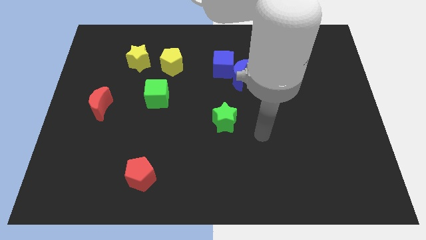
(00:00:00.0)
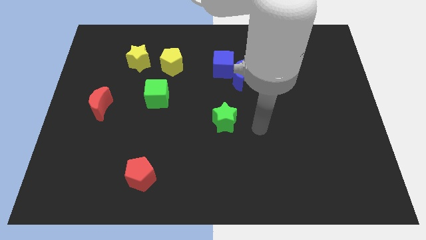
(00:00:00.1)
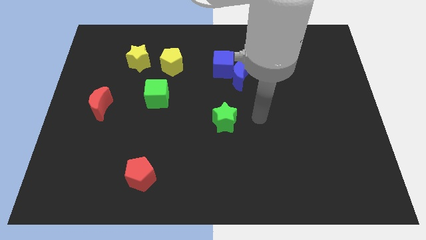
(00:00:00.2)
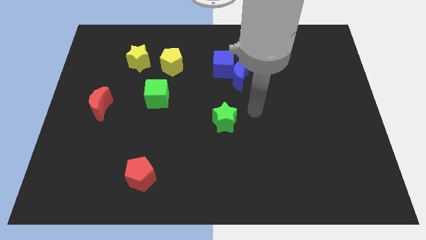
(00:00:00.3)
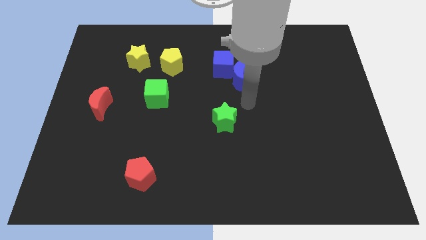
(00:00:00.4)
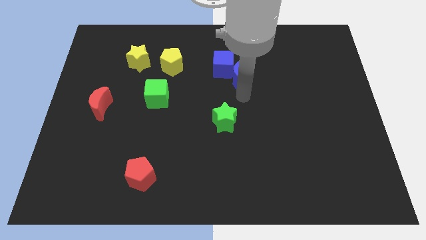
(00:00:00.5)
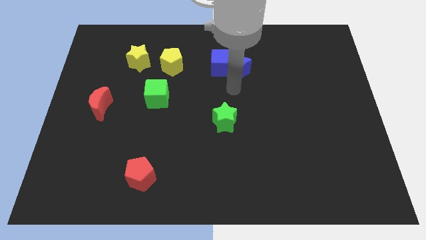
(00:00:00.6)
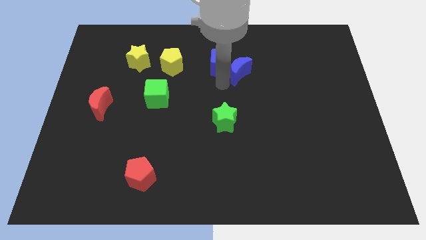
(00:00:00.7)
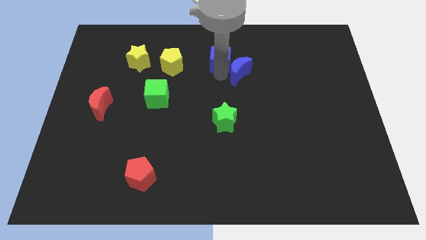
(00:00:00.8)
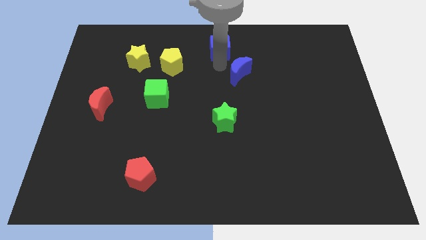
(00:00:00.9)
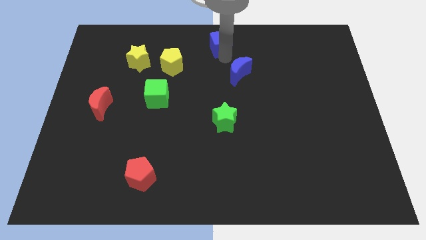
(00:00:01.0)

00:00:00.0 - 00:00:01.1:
separate the blue moon from the blue cube

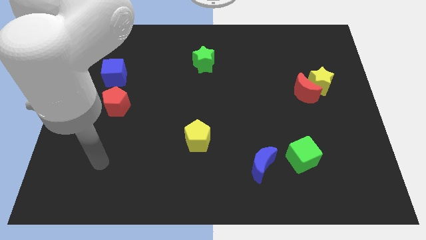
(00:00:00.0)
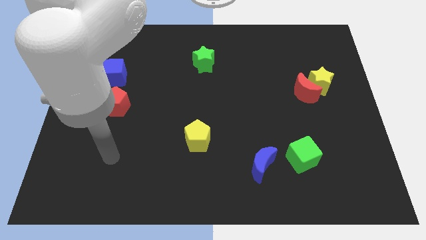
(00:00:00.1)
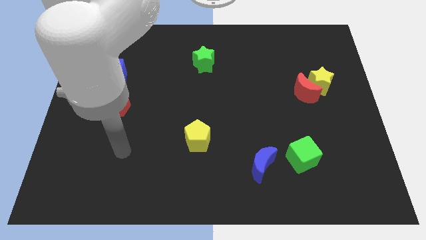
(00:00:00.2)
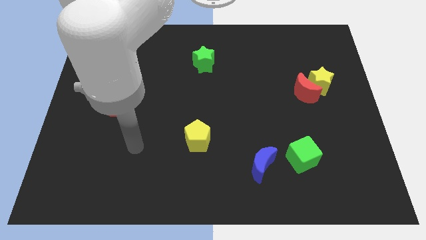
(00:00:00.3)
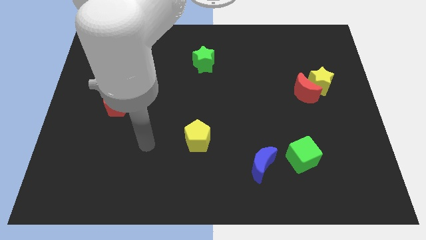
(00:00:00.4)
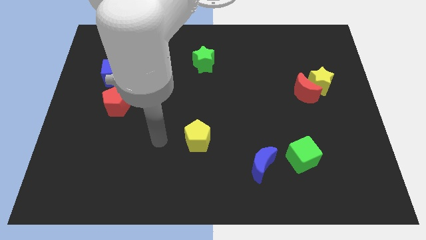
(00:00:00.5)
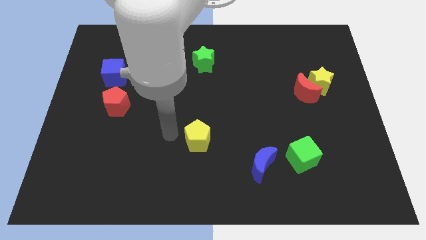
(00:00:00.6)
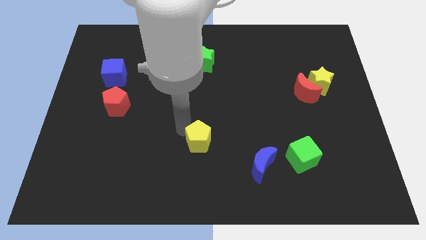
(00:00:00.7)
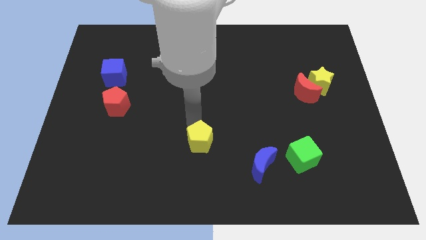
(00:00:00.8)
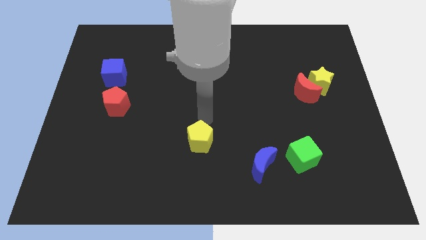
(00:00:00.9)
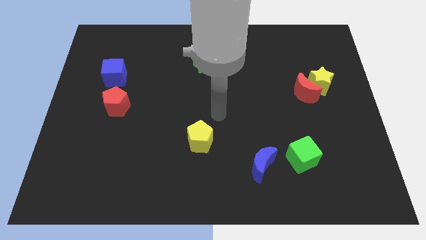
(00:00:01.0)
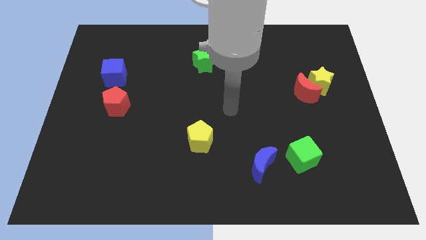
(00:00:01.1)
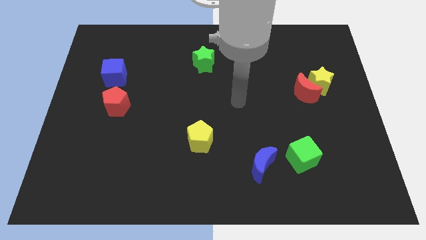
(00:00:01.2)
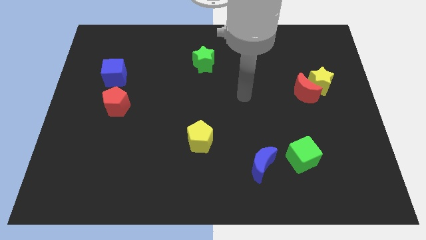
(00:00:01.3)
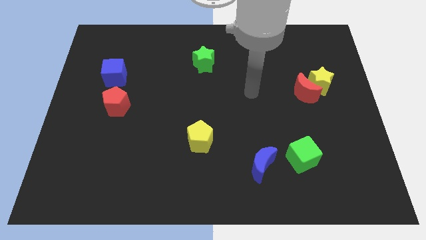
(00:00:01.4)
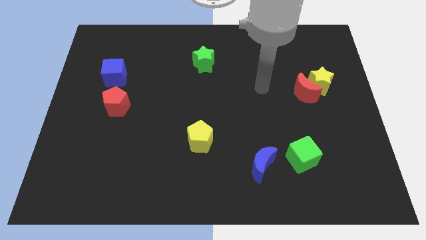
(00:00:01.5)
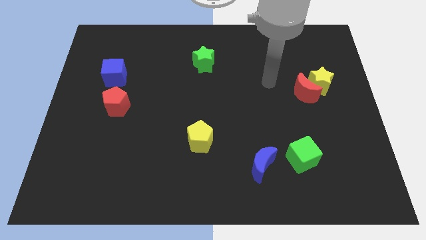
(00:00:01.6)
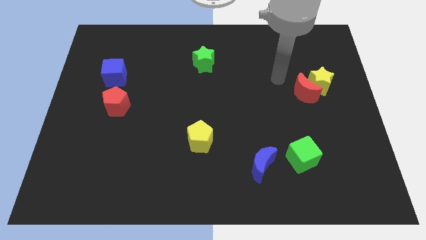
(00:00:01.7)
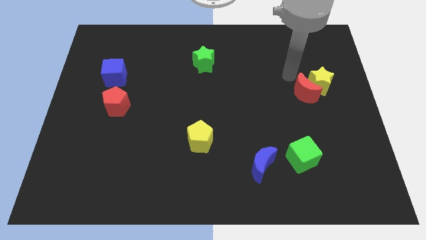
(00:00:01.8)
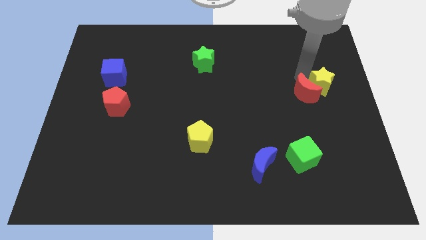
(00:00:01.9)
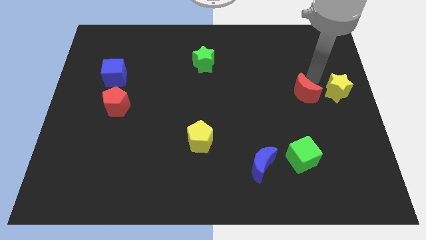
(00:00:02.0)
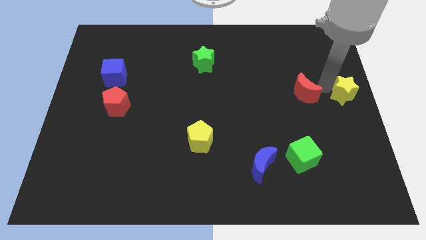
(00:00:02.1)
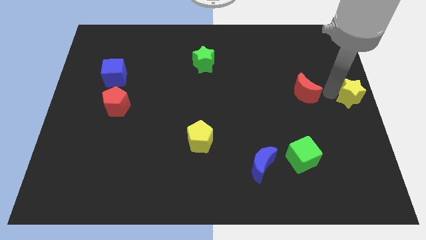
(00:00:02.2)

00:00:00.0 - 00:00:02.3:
move the red moon away from the yellow star

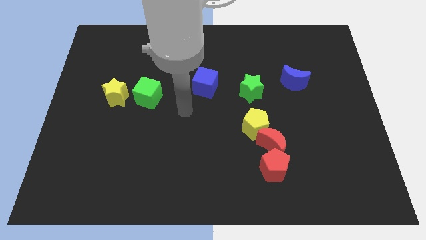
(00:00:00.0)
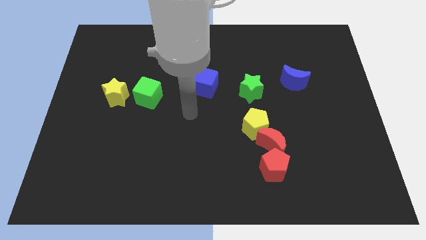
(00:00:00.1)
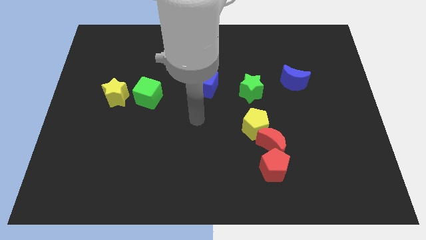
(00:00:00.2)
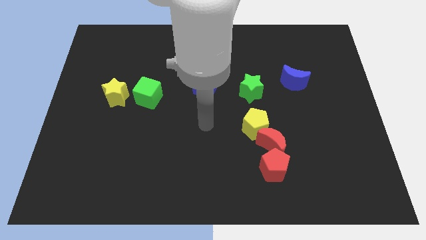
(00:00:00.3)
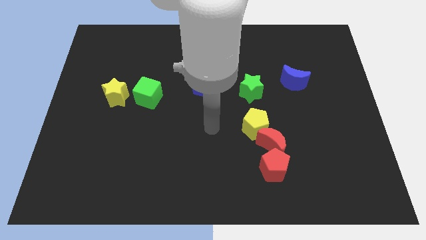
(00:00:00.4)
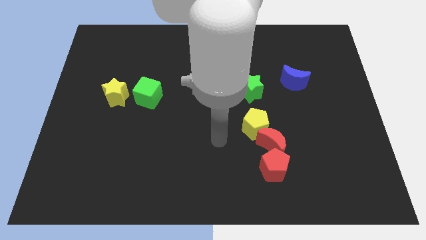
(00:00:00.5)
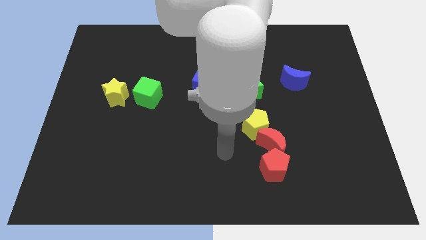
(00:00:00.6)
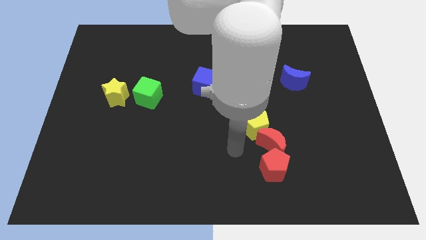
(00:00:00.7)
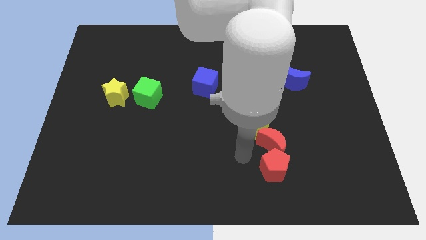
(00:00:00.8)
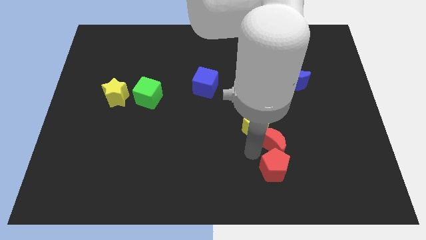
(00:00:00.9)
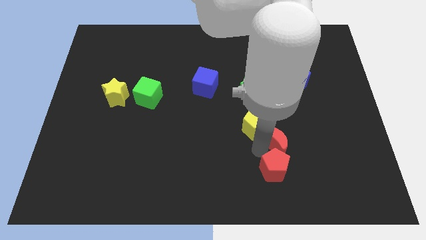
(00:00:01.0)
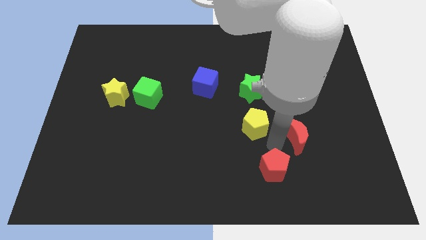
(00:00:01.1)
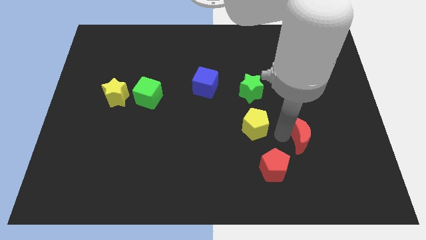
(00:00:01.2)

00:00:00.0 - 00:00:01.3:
separate the yellow pentagon from the red moon

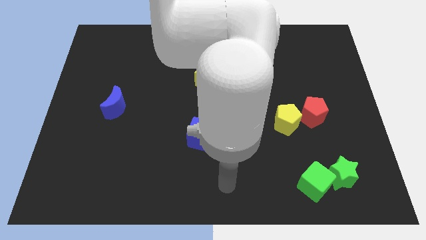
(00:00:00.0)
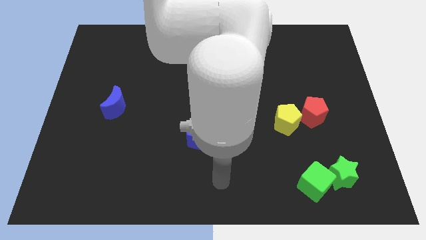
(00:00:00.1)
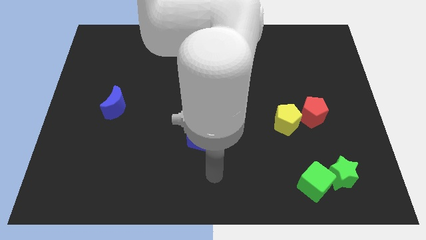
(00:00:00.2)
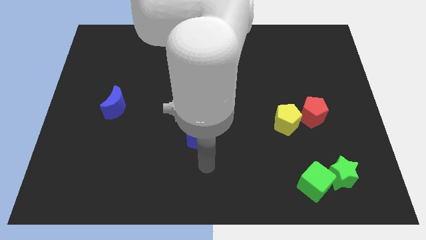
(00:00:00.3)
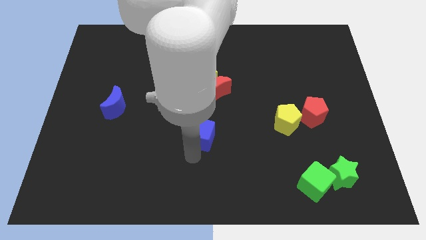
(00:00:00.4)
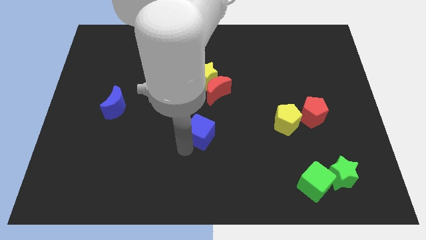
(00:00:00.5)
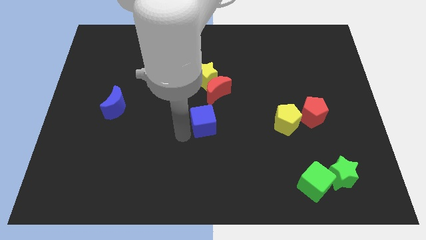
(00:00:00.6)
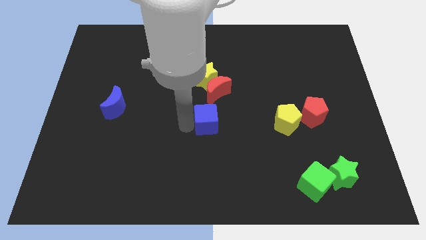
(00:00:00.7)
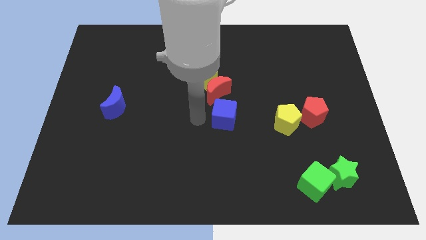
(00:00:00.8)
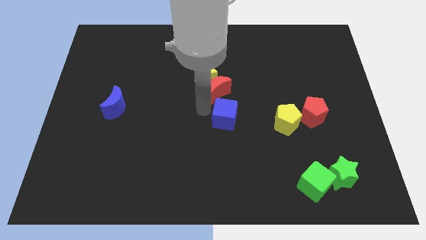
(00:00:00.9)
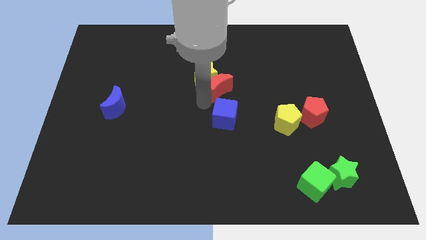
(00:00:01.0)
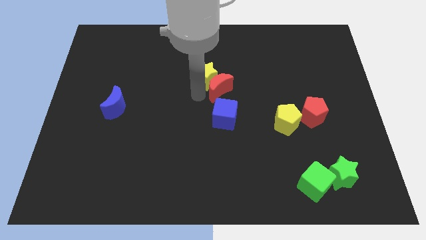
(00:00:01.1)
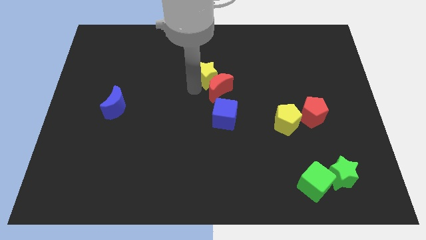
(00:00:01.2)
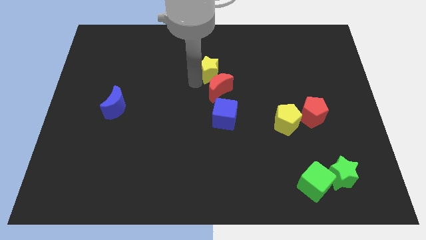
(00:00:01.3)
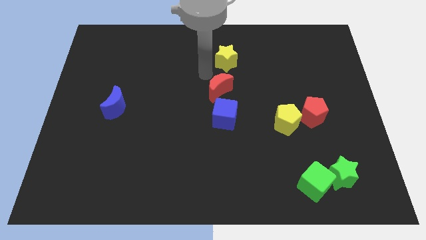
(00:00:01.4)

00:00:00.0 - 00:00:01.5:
separate the red moon from the yellow star

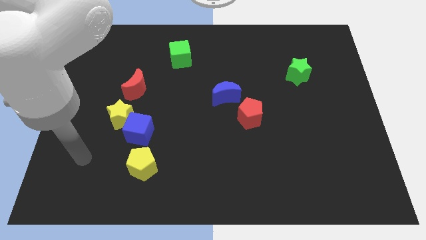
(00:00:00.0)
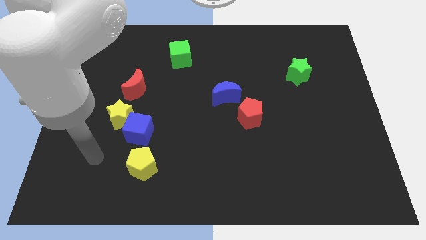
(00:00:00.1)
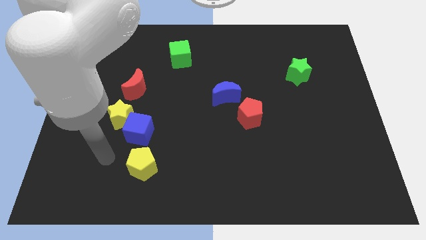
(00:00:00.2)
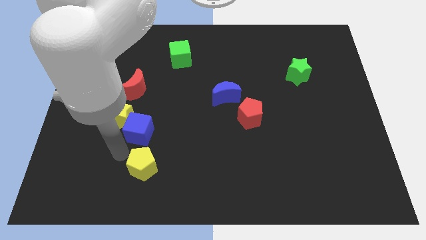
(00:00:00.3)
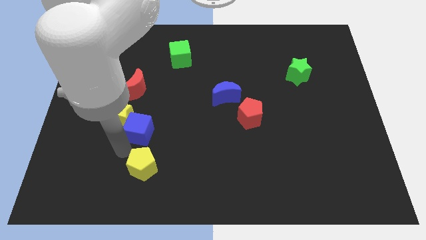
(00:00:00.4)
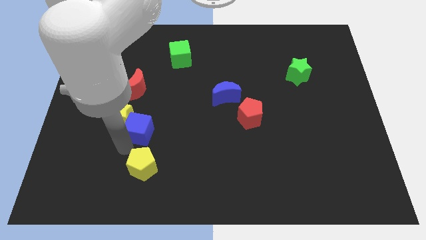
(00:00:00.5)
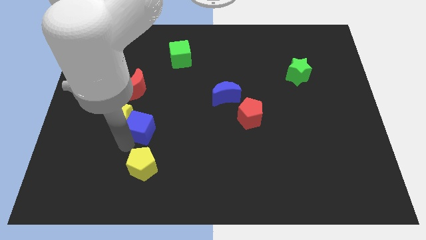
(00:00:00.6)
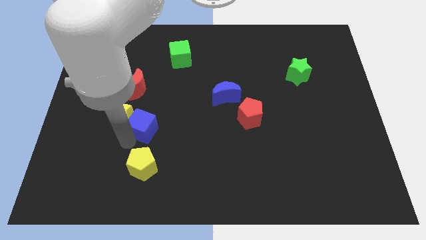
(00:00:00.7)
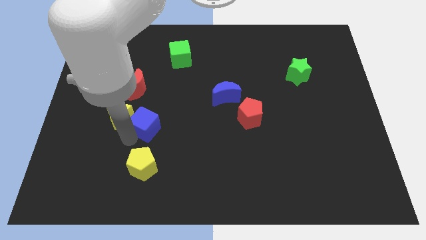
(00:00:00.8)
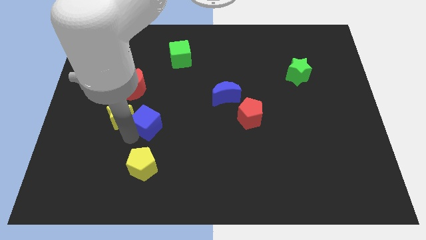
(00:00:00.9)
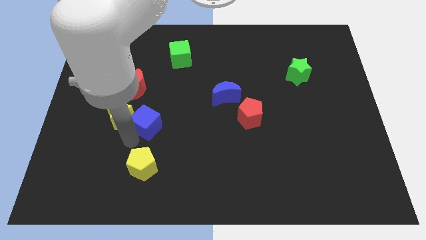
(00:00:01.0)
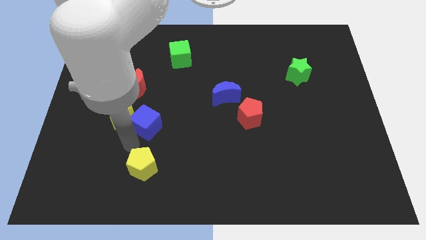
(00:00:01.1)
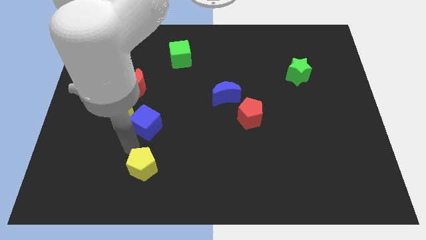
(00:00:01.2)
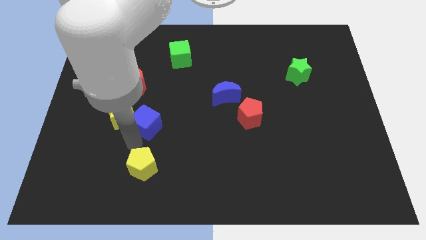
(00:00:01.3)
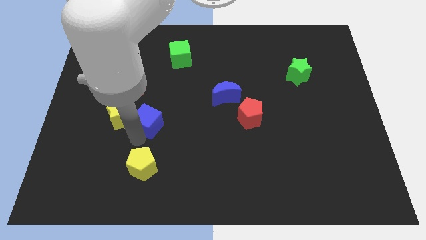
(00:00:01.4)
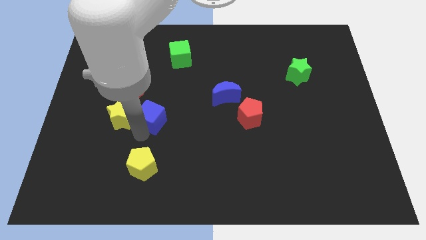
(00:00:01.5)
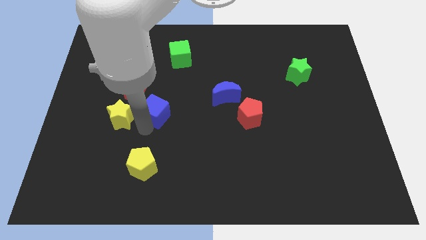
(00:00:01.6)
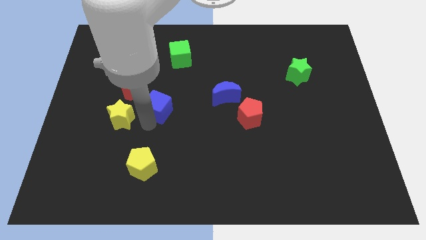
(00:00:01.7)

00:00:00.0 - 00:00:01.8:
pull the blue cube apart from the yellow star and yellow pentagon

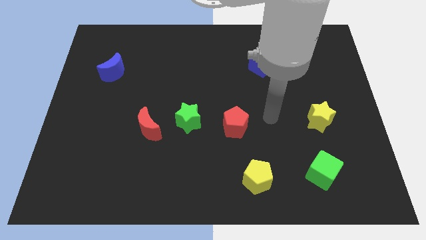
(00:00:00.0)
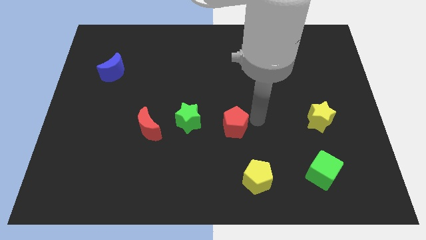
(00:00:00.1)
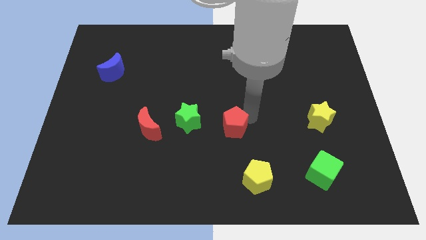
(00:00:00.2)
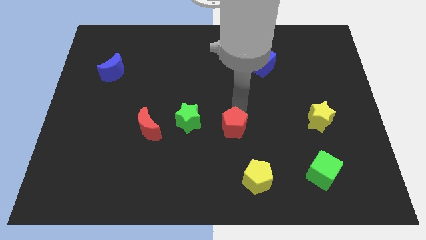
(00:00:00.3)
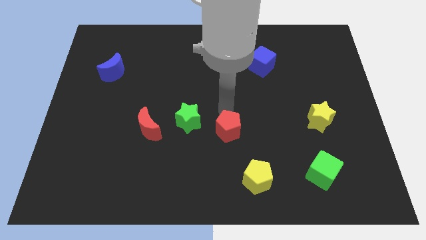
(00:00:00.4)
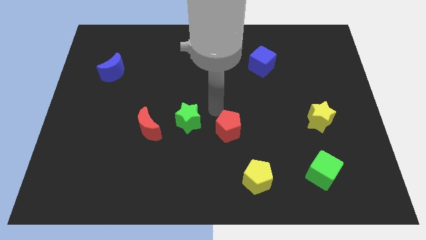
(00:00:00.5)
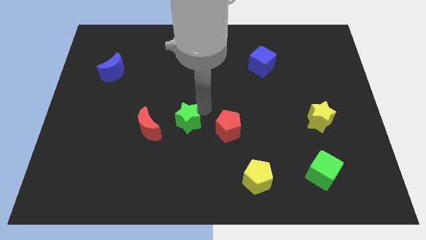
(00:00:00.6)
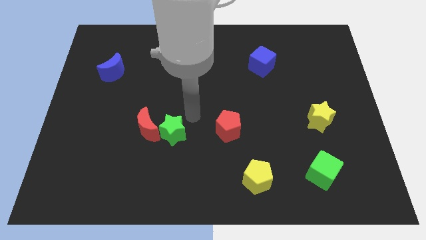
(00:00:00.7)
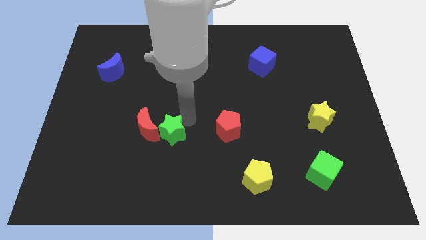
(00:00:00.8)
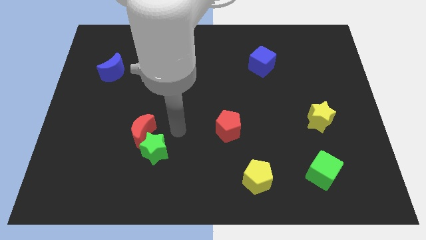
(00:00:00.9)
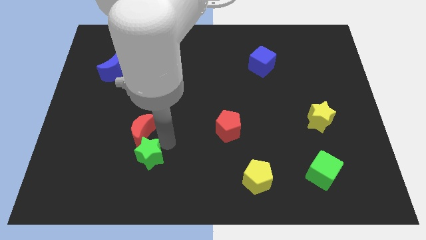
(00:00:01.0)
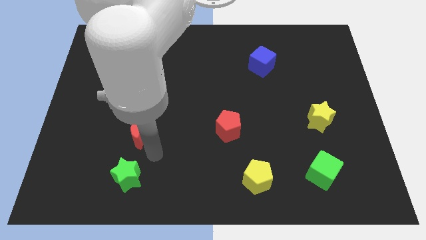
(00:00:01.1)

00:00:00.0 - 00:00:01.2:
move the red moon away from the green star
